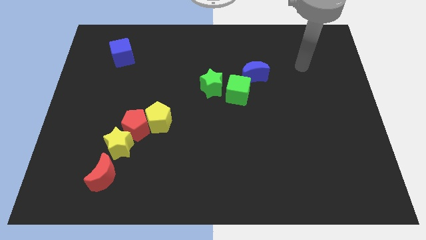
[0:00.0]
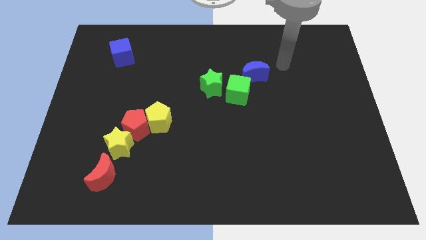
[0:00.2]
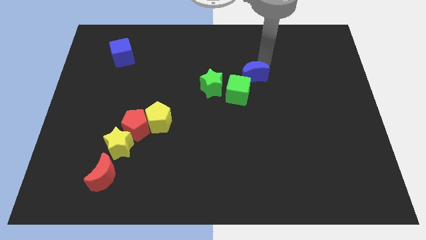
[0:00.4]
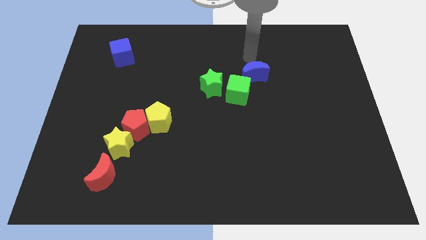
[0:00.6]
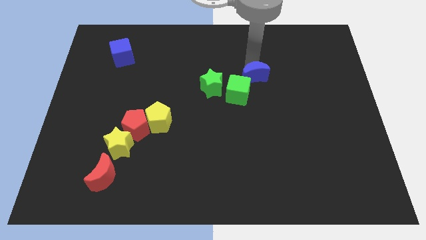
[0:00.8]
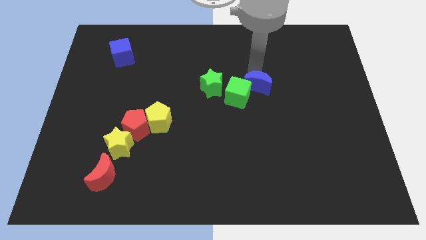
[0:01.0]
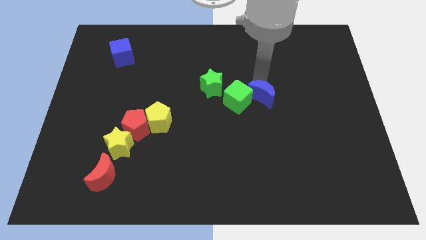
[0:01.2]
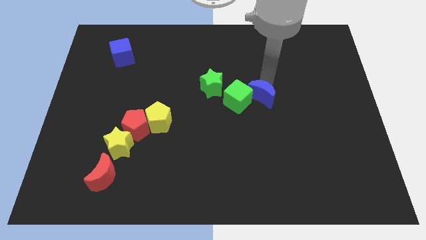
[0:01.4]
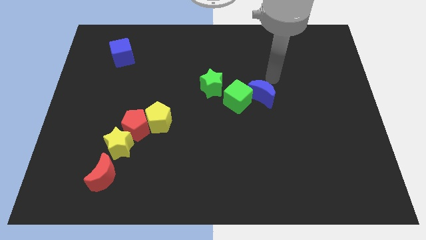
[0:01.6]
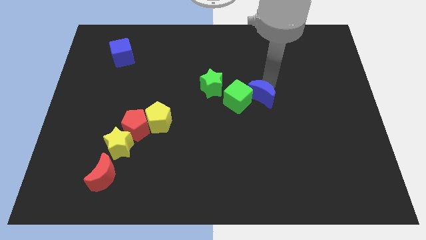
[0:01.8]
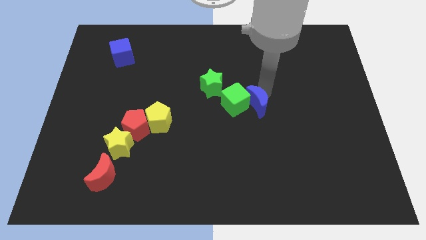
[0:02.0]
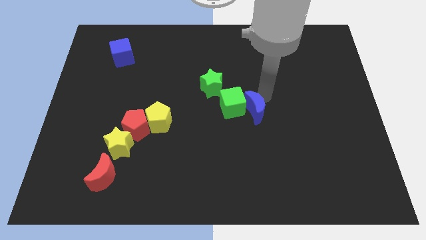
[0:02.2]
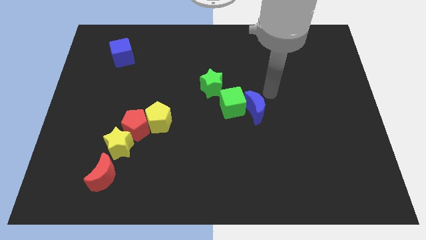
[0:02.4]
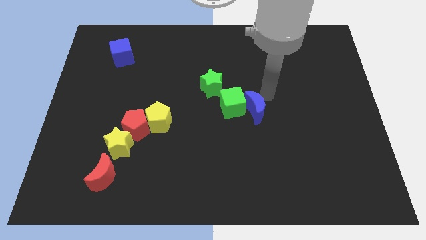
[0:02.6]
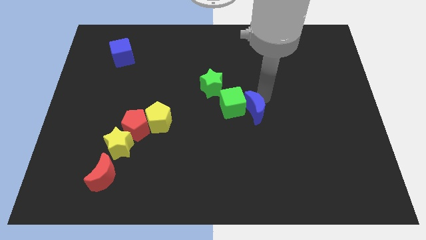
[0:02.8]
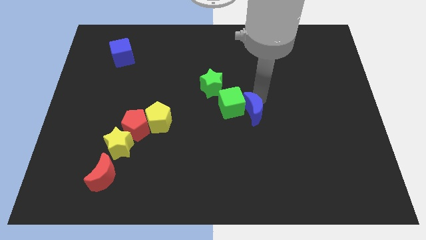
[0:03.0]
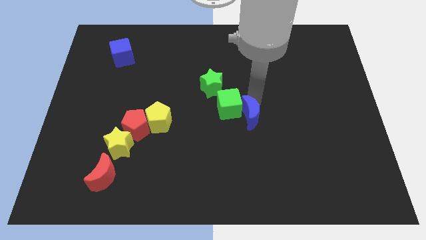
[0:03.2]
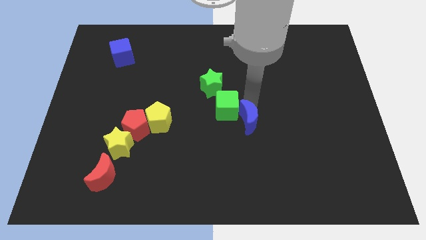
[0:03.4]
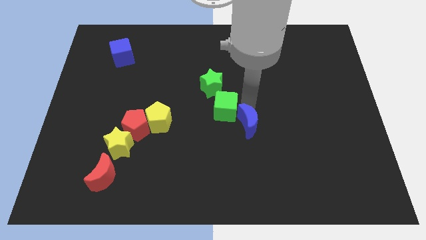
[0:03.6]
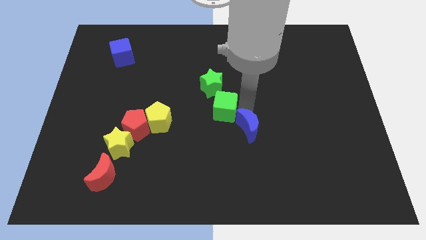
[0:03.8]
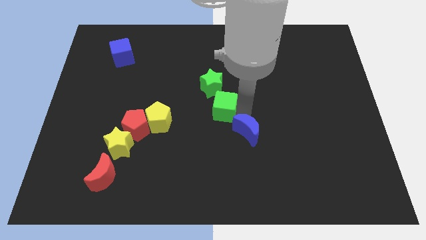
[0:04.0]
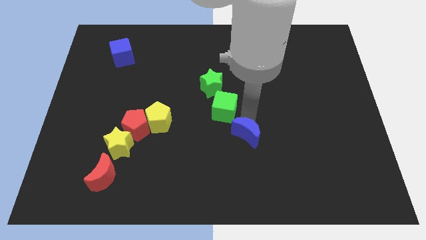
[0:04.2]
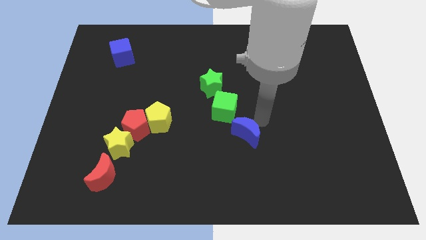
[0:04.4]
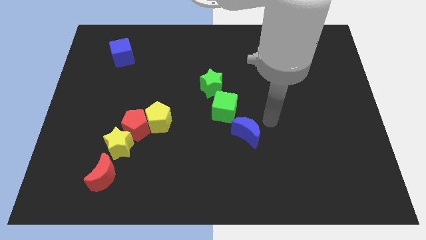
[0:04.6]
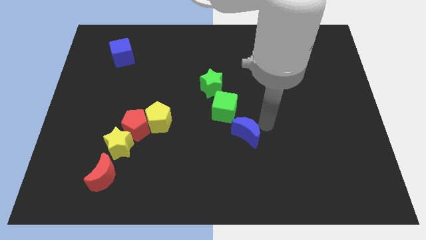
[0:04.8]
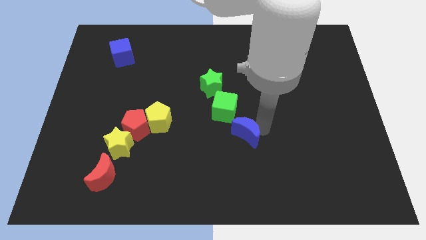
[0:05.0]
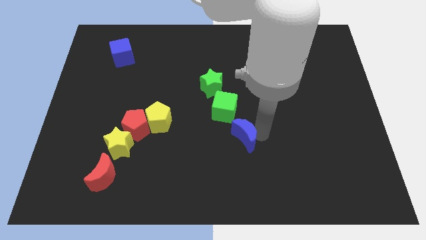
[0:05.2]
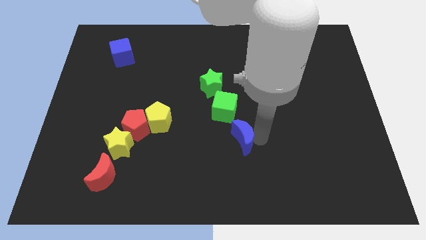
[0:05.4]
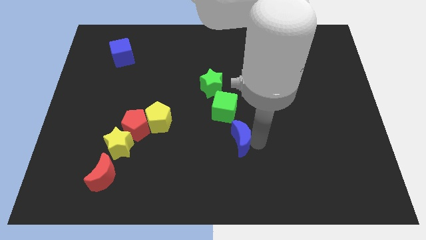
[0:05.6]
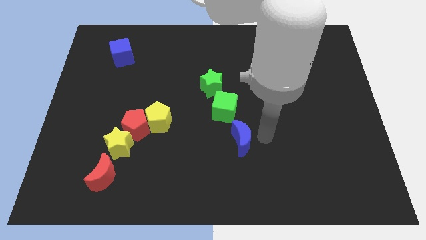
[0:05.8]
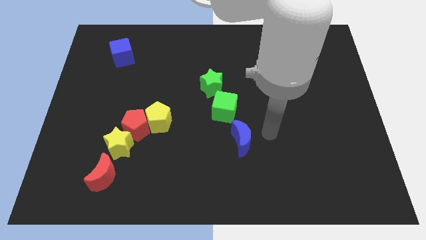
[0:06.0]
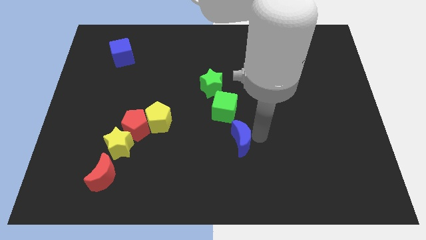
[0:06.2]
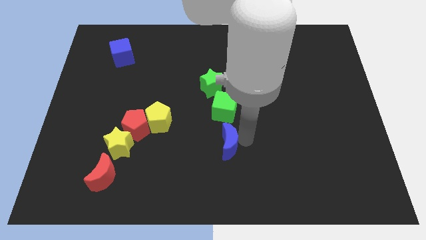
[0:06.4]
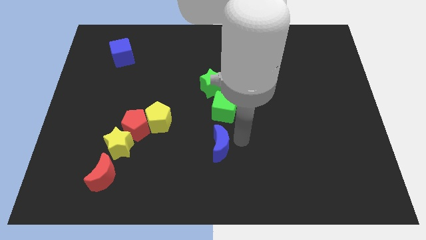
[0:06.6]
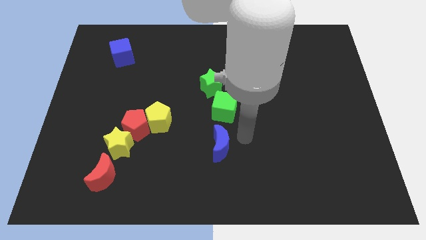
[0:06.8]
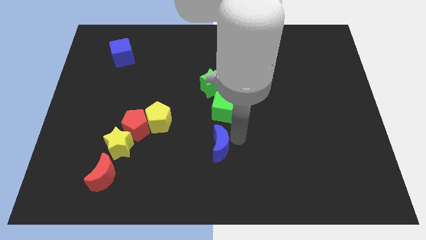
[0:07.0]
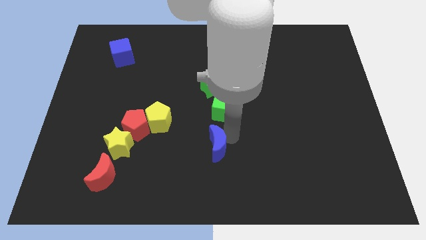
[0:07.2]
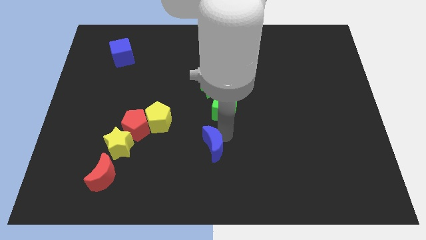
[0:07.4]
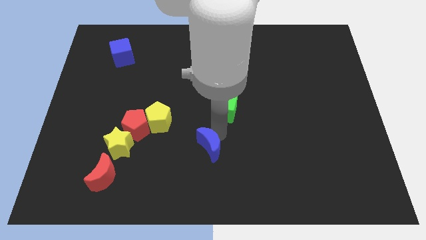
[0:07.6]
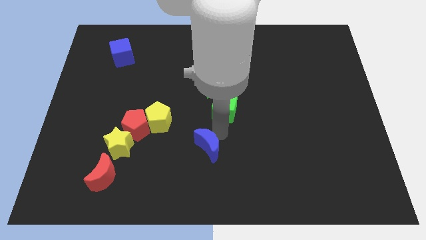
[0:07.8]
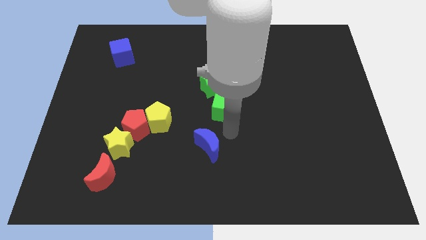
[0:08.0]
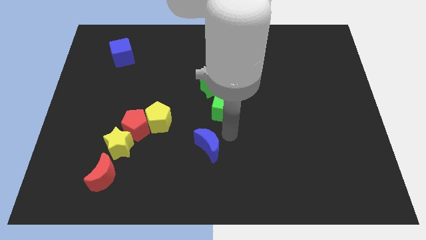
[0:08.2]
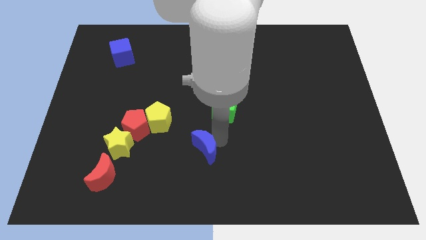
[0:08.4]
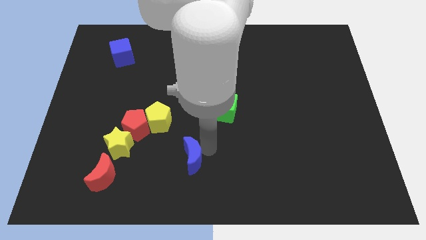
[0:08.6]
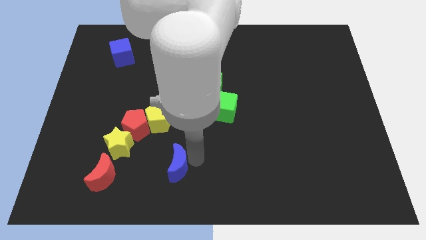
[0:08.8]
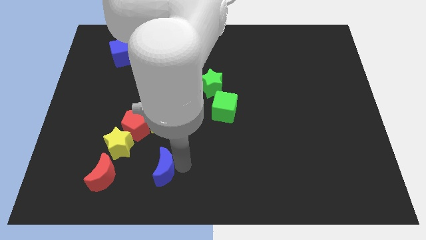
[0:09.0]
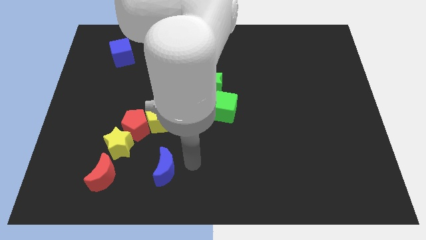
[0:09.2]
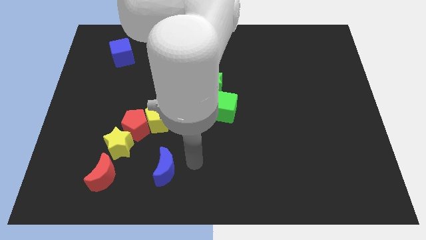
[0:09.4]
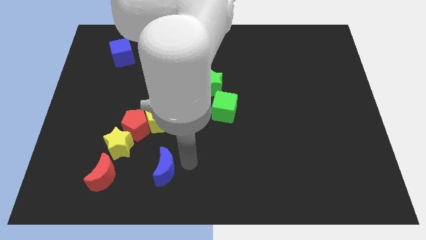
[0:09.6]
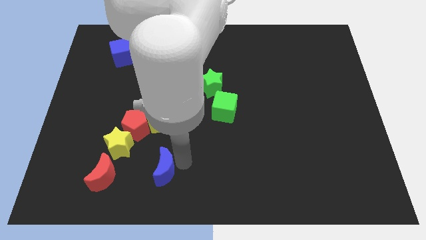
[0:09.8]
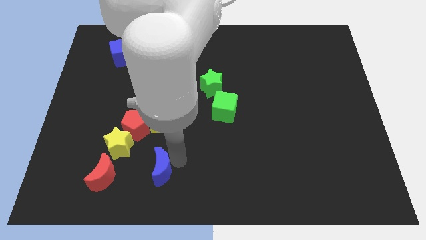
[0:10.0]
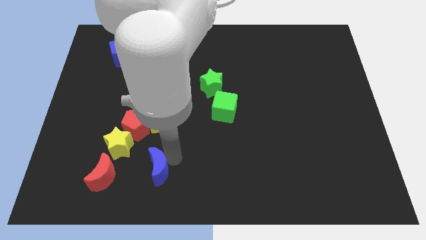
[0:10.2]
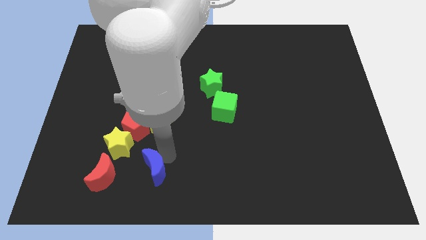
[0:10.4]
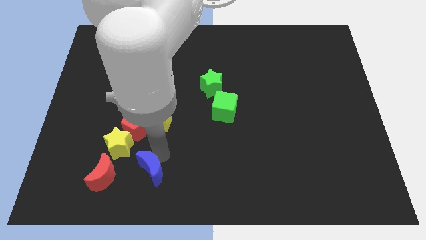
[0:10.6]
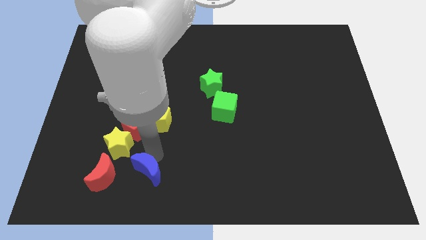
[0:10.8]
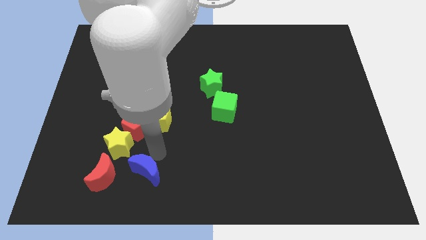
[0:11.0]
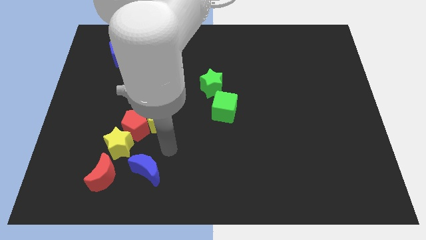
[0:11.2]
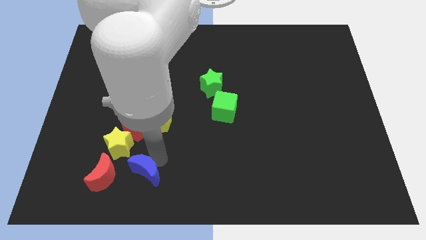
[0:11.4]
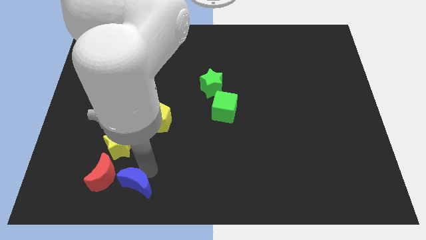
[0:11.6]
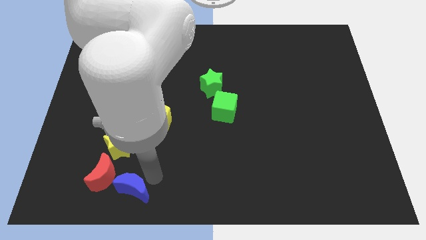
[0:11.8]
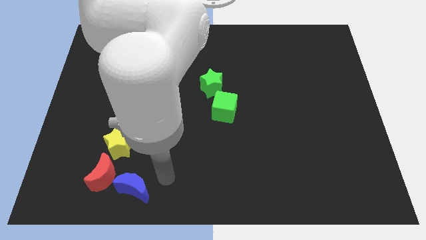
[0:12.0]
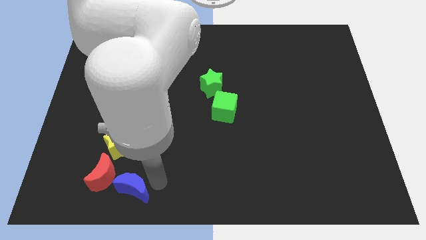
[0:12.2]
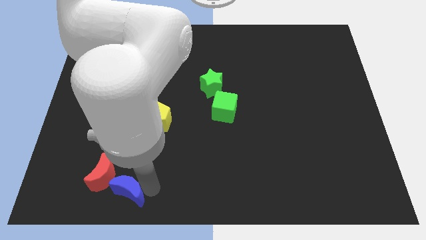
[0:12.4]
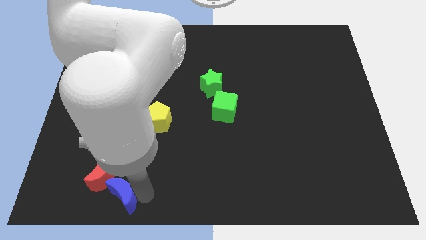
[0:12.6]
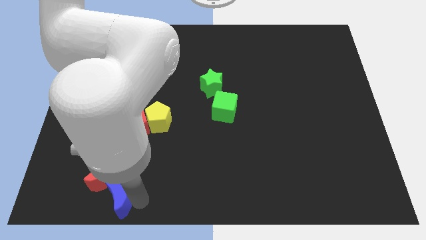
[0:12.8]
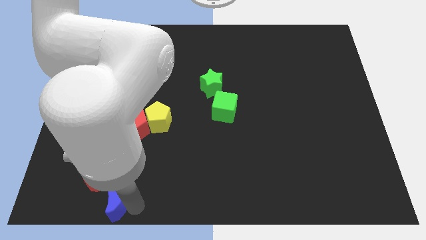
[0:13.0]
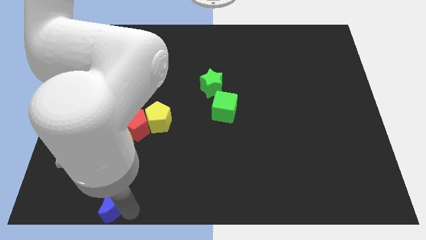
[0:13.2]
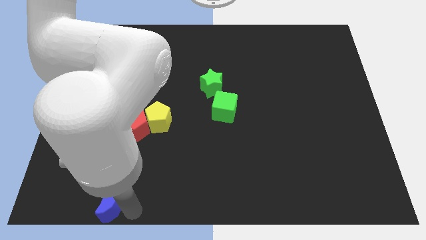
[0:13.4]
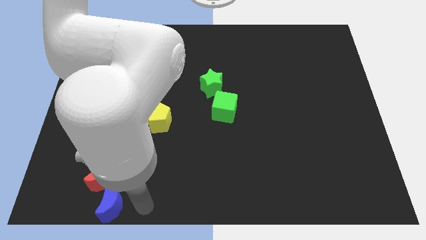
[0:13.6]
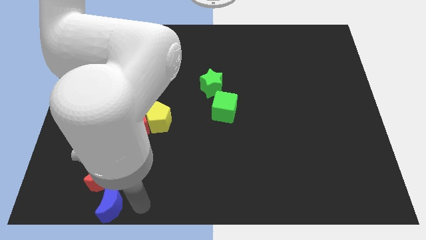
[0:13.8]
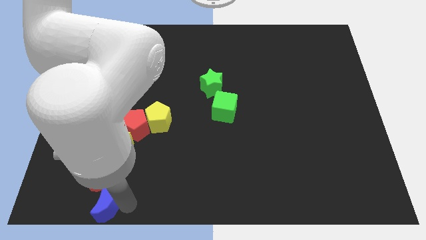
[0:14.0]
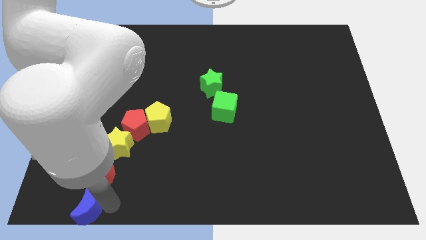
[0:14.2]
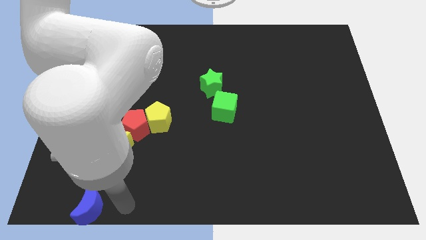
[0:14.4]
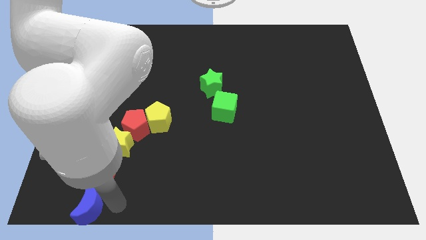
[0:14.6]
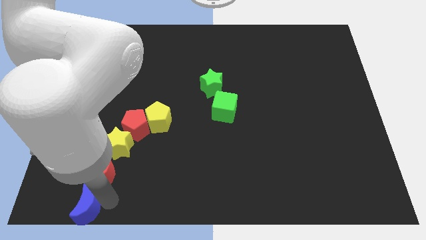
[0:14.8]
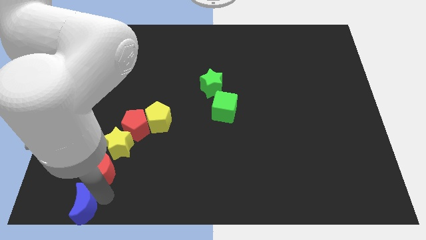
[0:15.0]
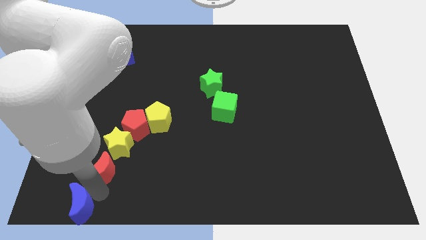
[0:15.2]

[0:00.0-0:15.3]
put the blue moon to the bottom left of the board
